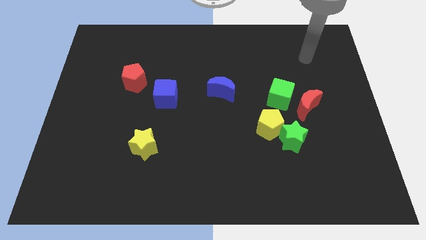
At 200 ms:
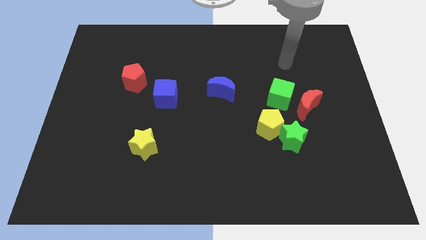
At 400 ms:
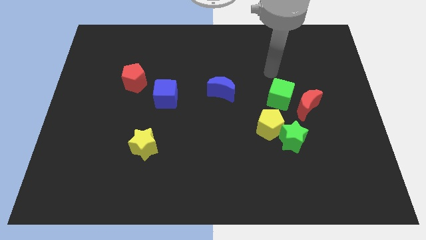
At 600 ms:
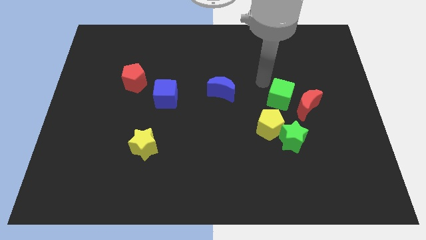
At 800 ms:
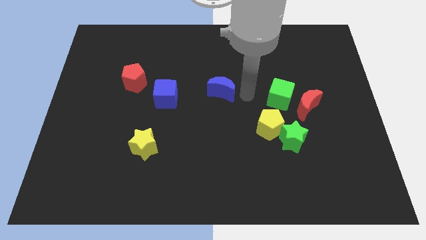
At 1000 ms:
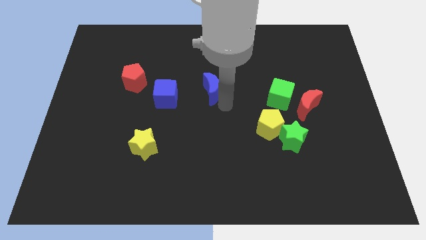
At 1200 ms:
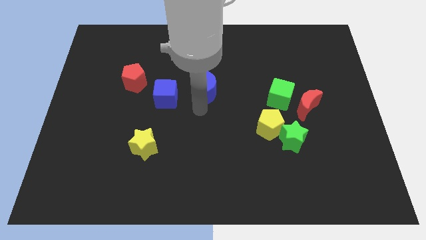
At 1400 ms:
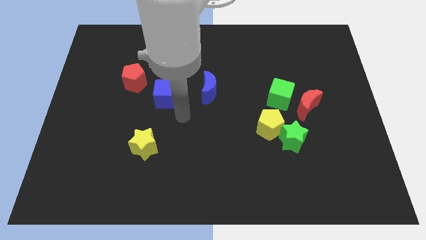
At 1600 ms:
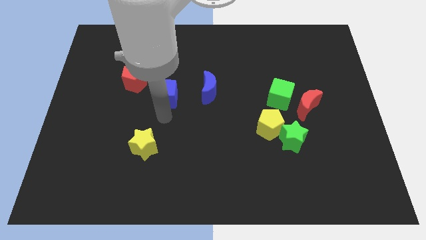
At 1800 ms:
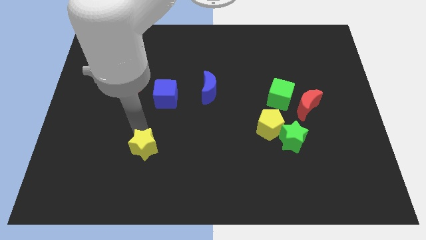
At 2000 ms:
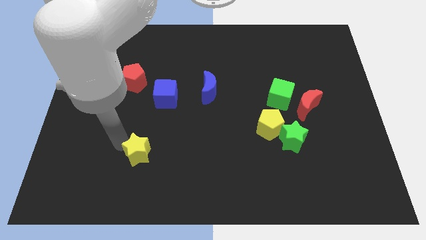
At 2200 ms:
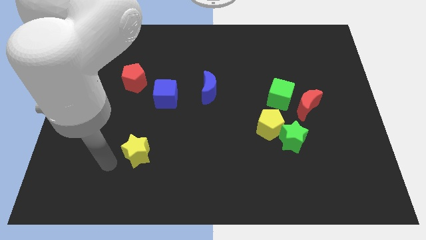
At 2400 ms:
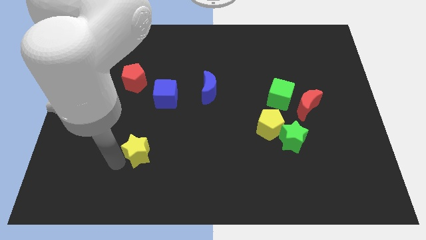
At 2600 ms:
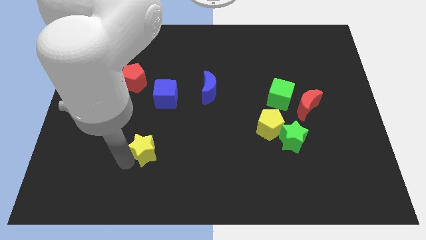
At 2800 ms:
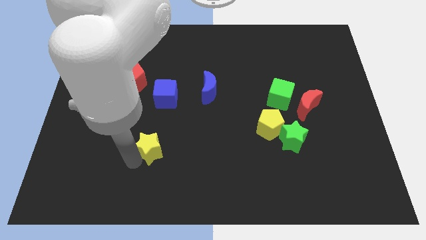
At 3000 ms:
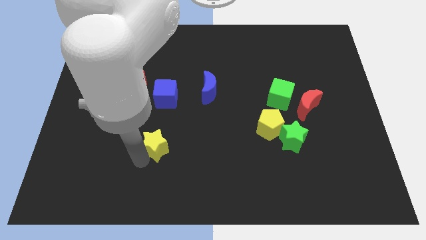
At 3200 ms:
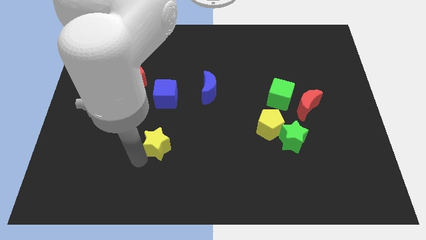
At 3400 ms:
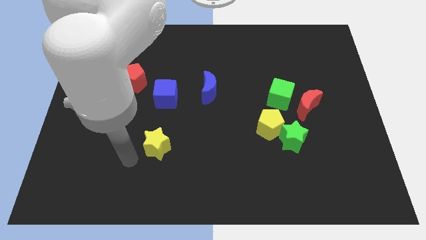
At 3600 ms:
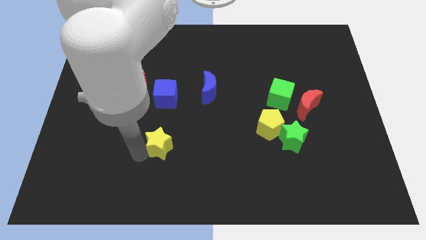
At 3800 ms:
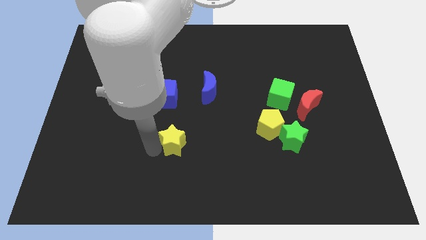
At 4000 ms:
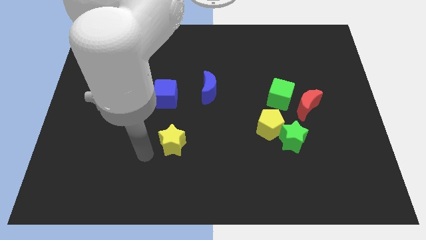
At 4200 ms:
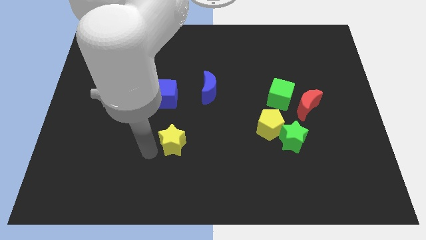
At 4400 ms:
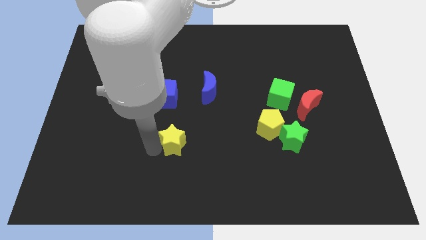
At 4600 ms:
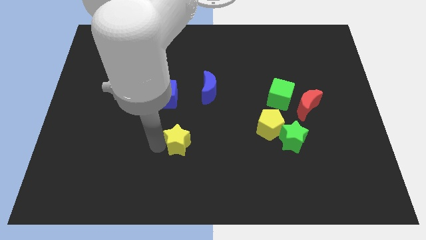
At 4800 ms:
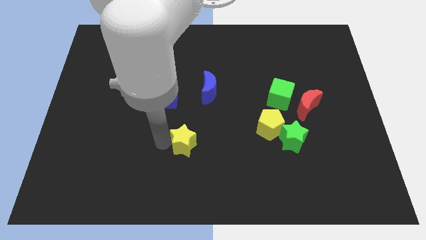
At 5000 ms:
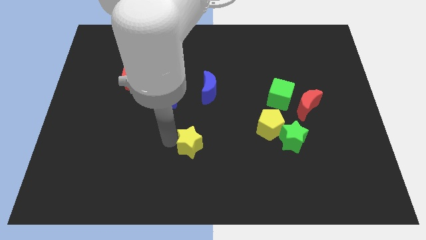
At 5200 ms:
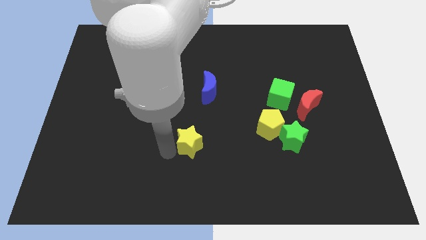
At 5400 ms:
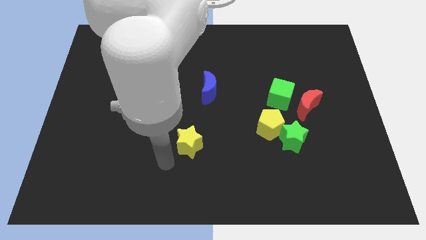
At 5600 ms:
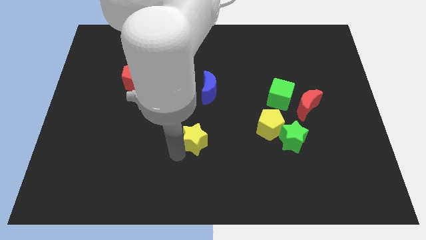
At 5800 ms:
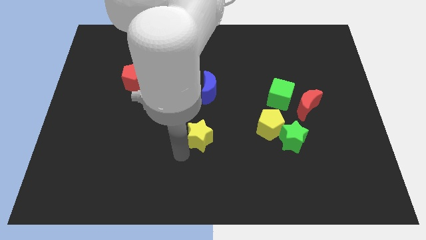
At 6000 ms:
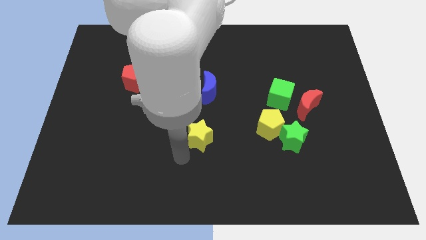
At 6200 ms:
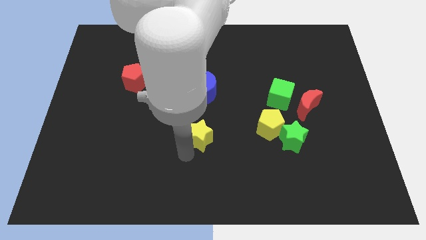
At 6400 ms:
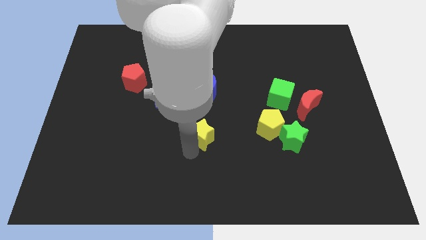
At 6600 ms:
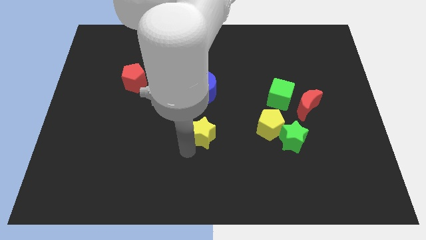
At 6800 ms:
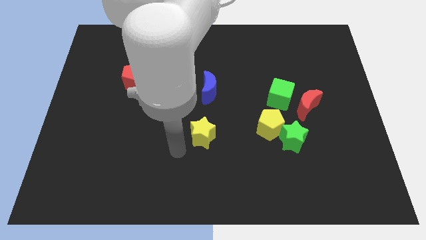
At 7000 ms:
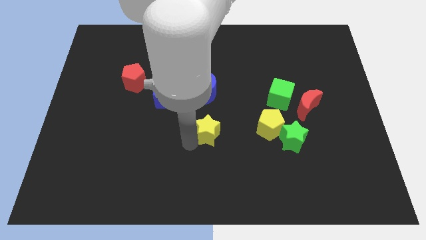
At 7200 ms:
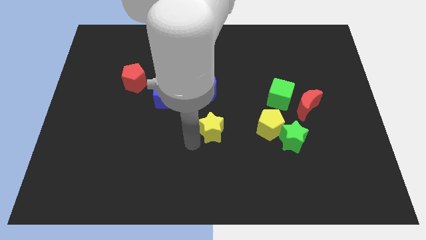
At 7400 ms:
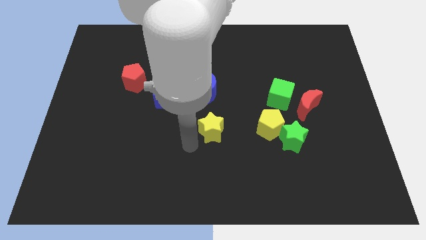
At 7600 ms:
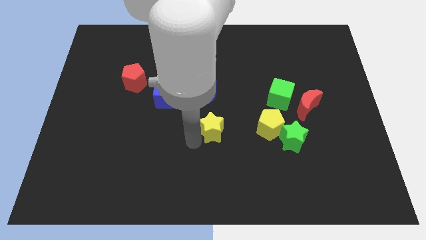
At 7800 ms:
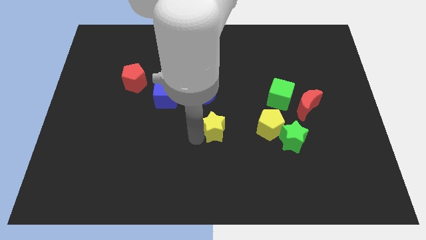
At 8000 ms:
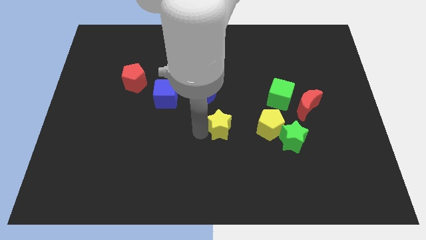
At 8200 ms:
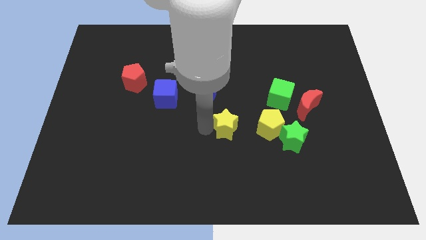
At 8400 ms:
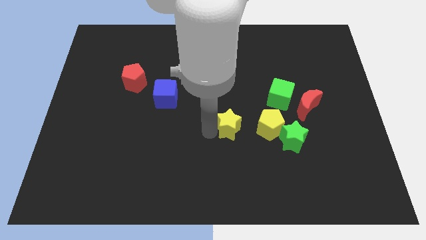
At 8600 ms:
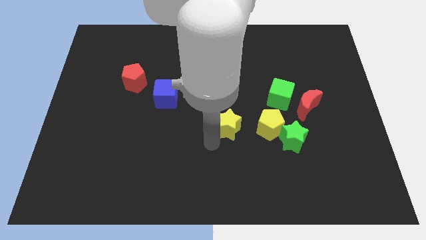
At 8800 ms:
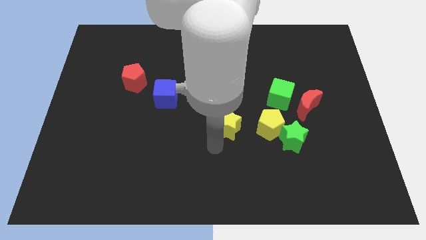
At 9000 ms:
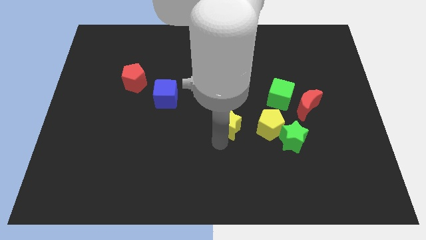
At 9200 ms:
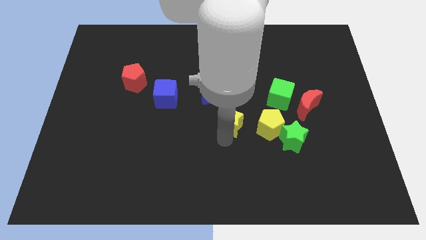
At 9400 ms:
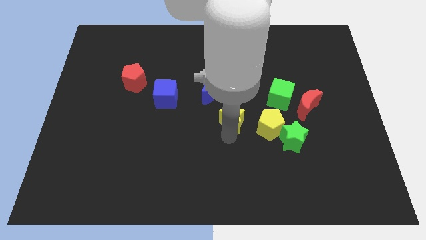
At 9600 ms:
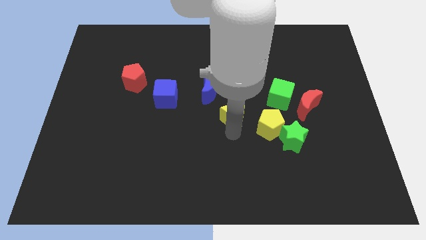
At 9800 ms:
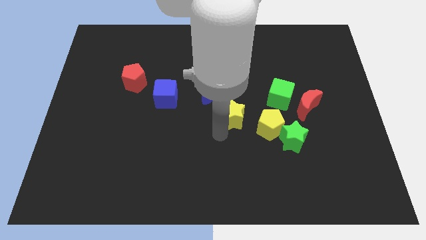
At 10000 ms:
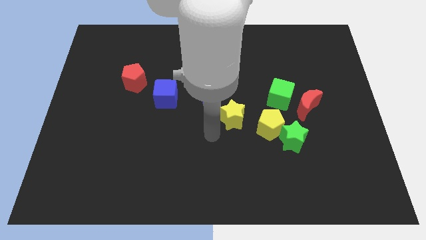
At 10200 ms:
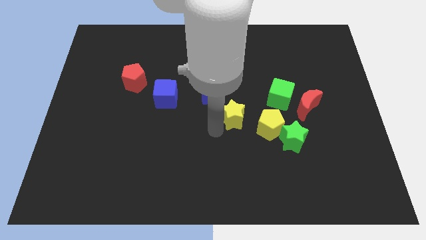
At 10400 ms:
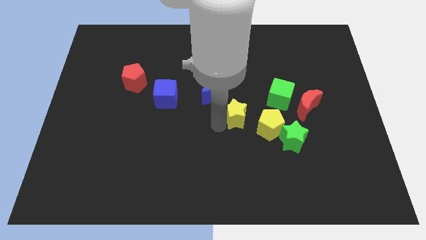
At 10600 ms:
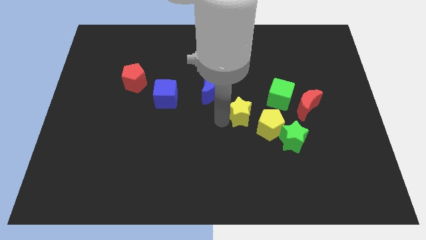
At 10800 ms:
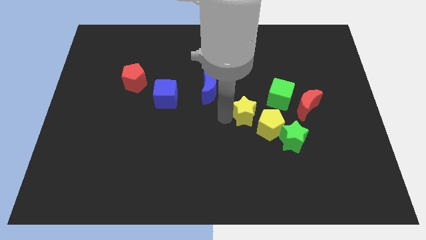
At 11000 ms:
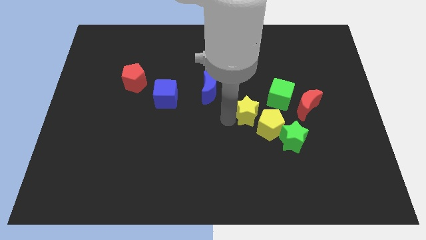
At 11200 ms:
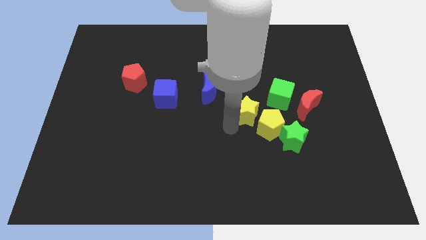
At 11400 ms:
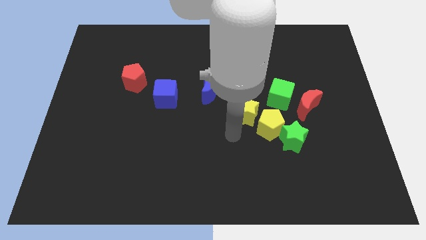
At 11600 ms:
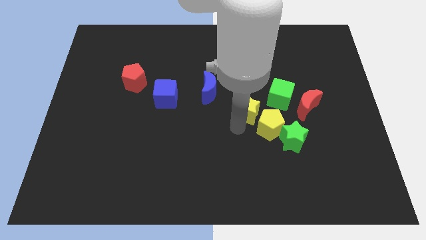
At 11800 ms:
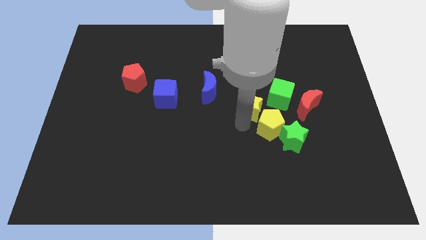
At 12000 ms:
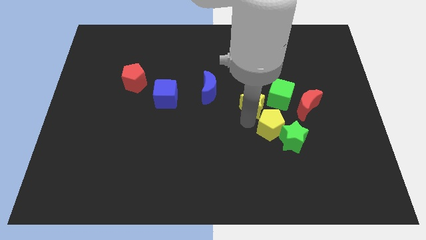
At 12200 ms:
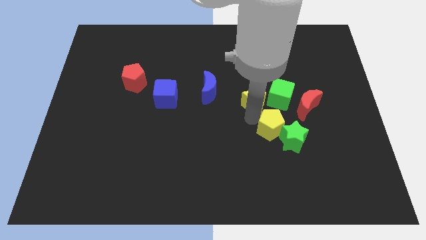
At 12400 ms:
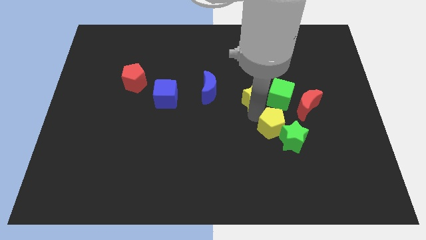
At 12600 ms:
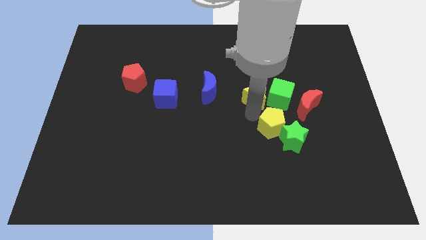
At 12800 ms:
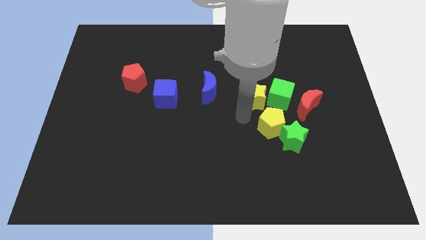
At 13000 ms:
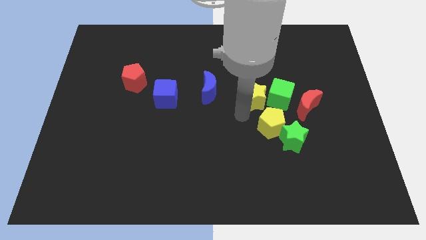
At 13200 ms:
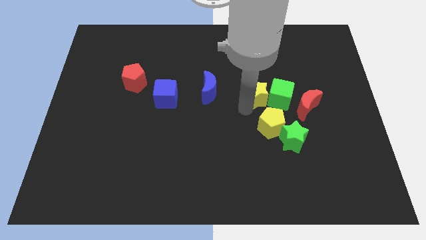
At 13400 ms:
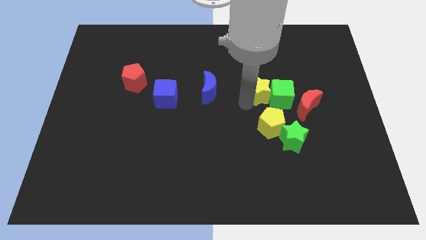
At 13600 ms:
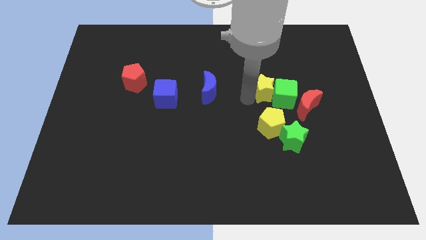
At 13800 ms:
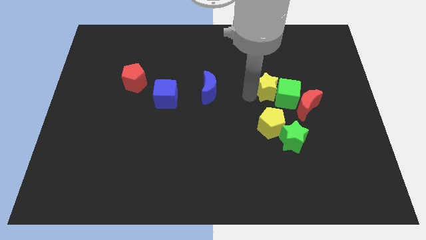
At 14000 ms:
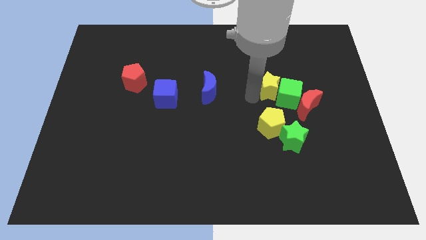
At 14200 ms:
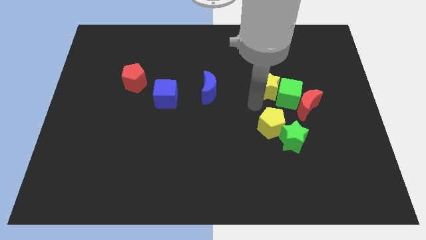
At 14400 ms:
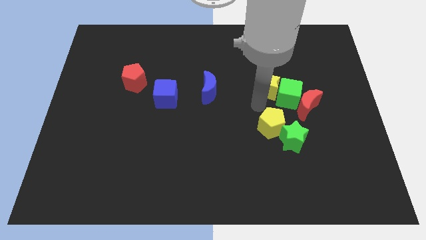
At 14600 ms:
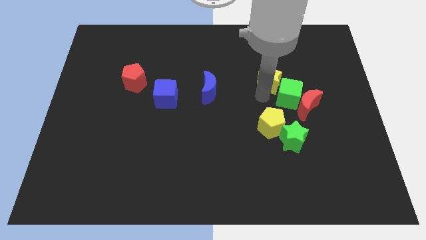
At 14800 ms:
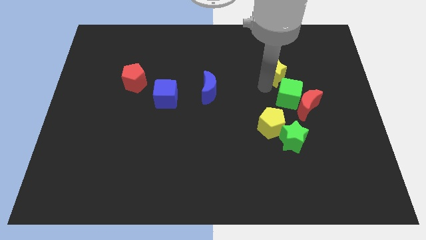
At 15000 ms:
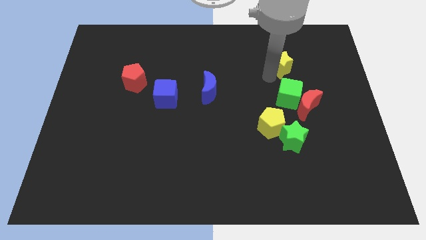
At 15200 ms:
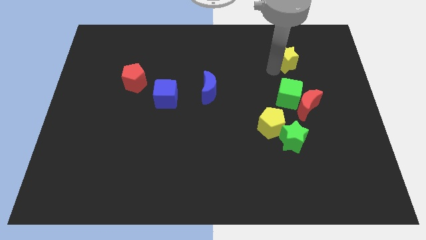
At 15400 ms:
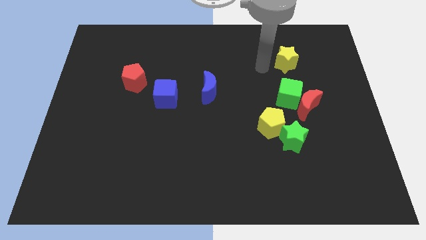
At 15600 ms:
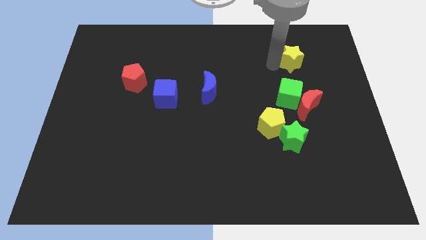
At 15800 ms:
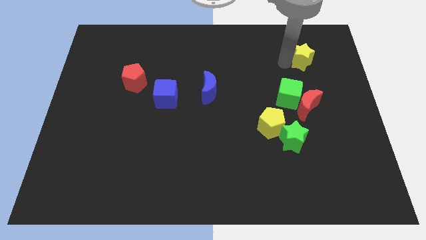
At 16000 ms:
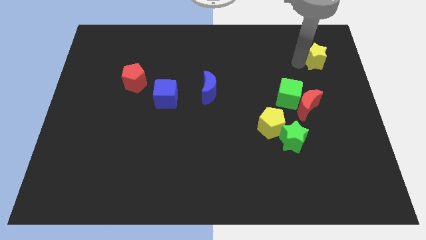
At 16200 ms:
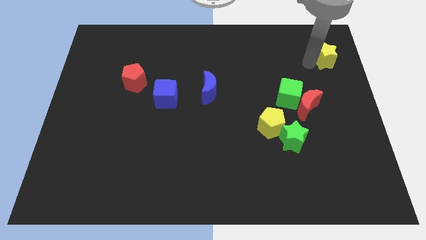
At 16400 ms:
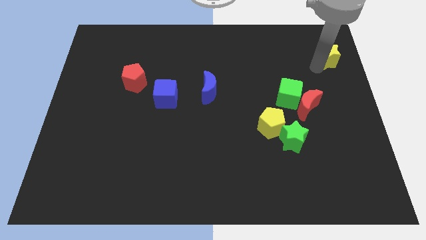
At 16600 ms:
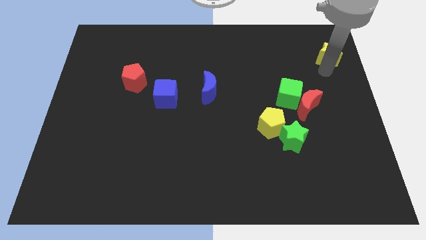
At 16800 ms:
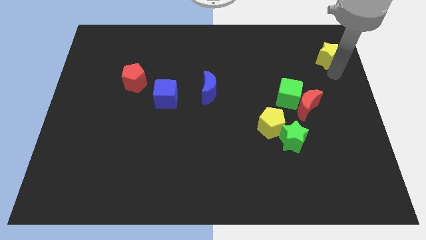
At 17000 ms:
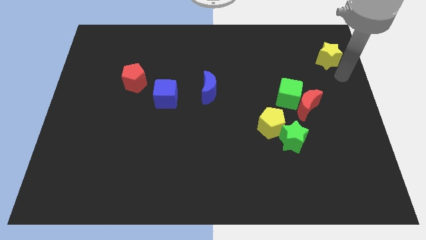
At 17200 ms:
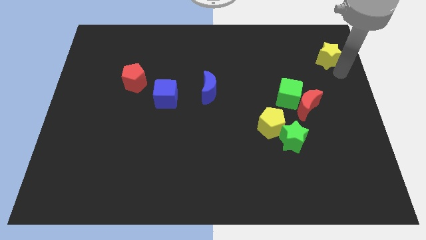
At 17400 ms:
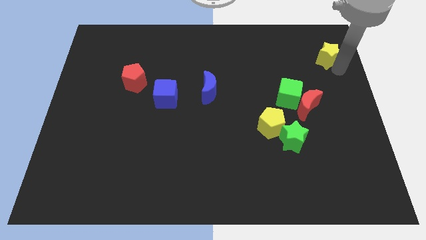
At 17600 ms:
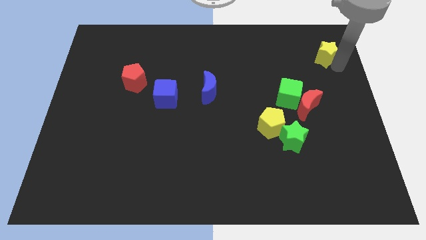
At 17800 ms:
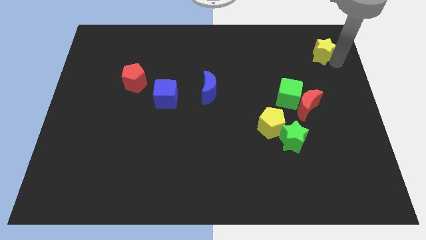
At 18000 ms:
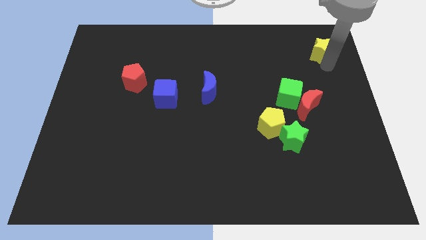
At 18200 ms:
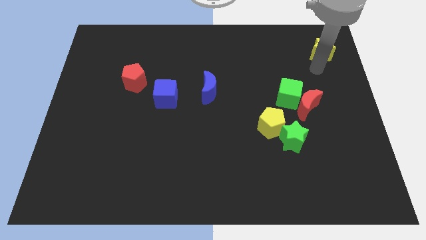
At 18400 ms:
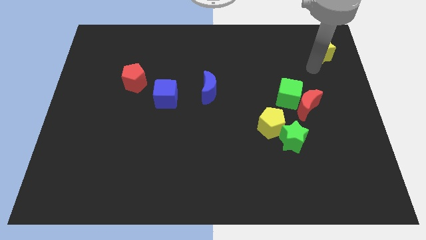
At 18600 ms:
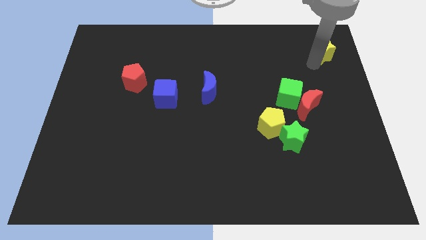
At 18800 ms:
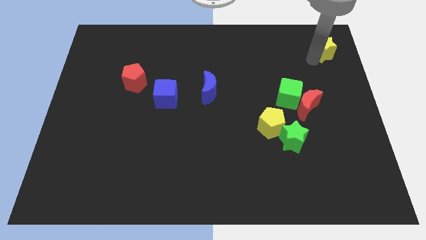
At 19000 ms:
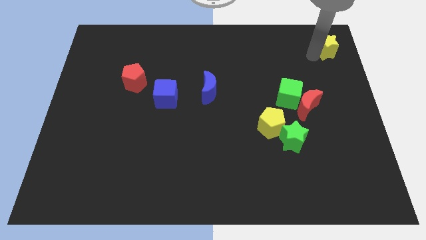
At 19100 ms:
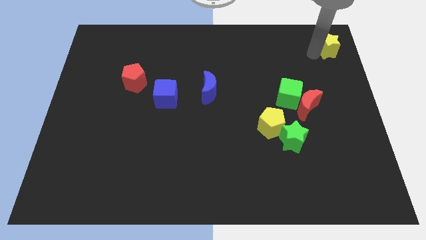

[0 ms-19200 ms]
put the yellow star to the upper right corner
